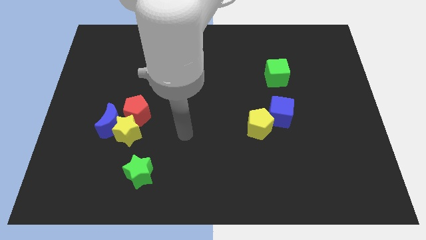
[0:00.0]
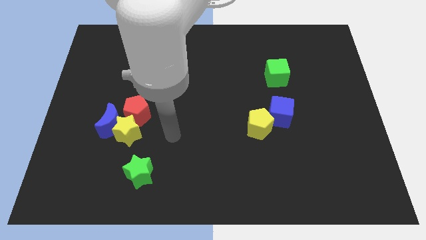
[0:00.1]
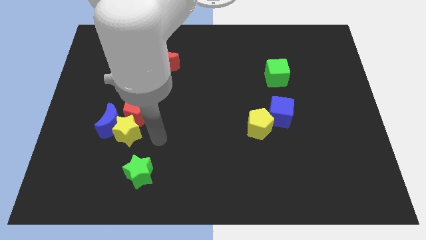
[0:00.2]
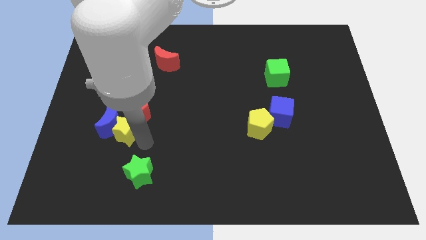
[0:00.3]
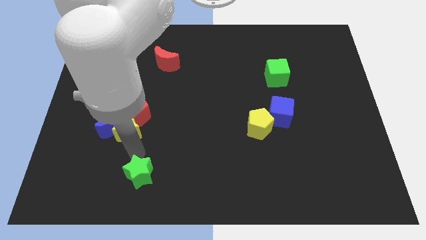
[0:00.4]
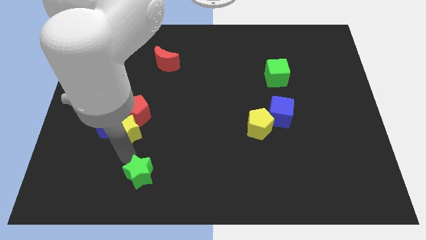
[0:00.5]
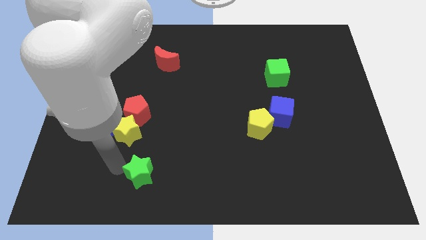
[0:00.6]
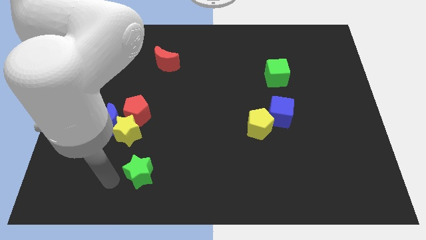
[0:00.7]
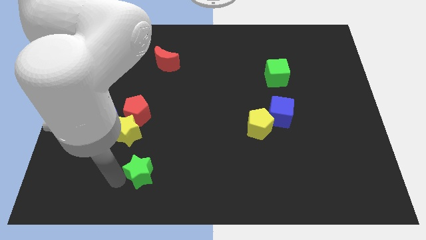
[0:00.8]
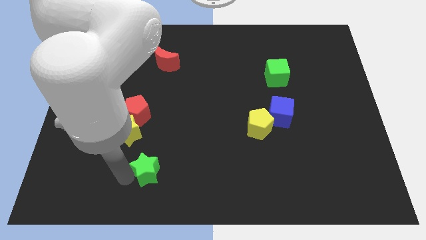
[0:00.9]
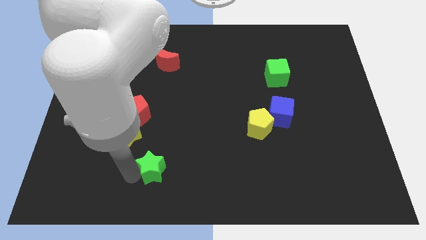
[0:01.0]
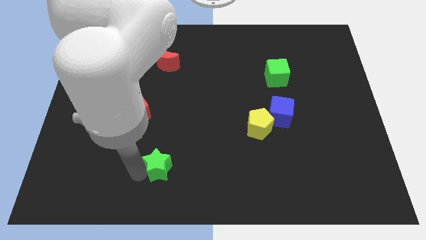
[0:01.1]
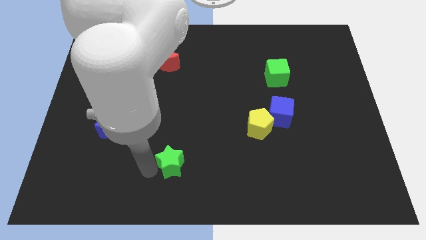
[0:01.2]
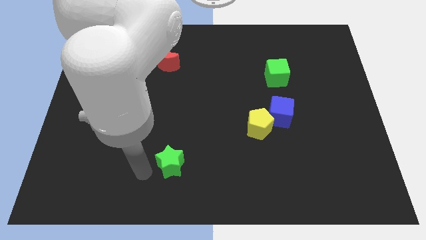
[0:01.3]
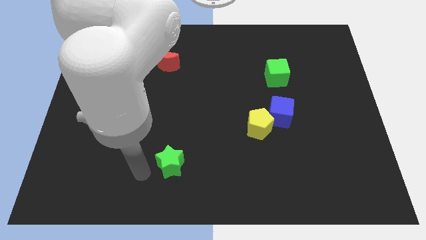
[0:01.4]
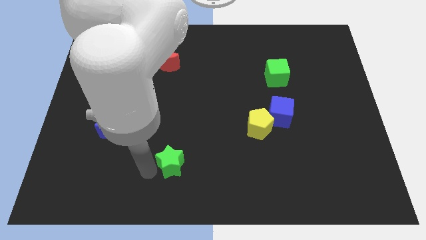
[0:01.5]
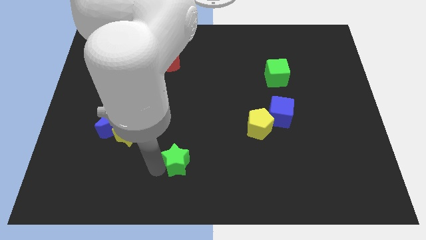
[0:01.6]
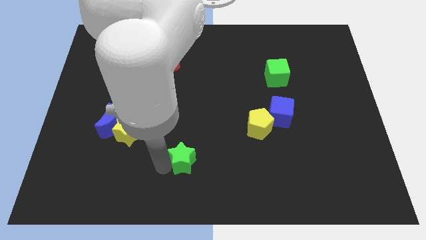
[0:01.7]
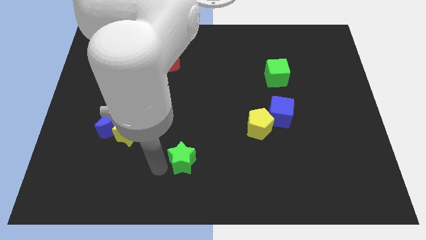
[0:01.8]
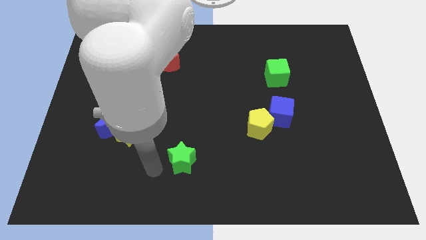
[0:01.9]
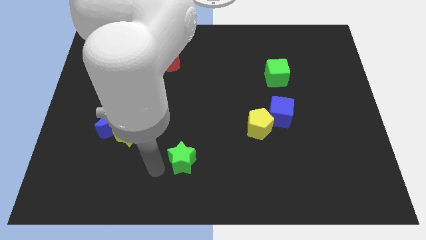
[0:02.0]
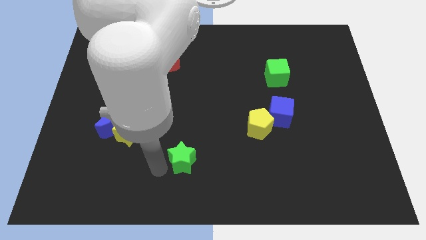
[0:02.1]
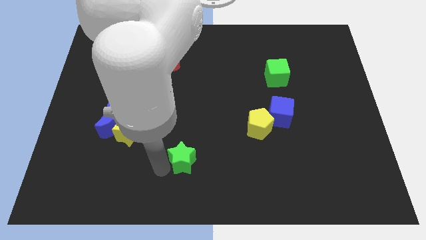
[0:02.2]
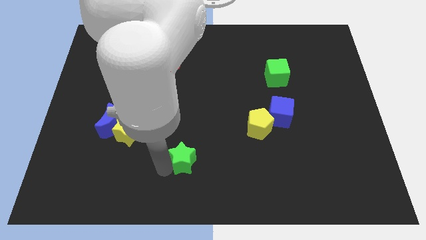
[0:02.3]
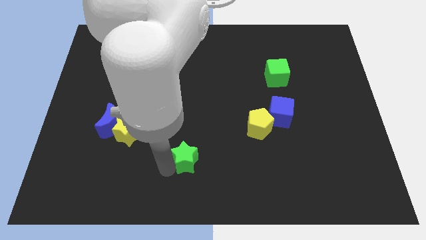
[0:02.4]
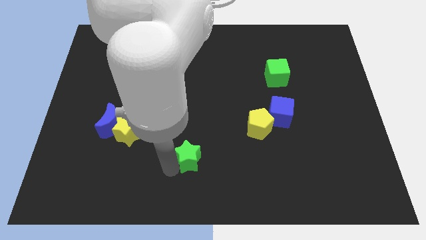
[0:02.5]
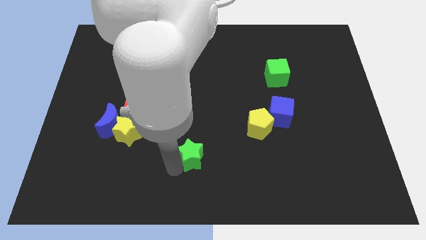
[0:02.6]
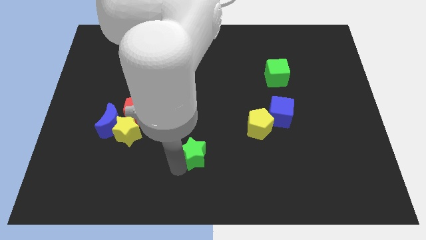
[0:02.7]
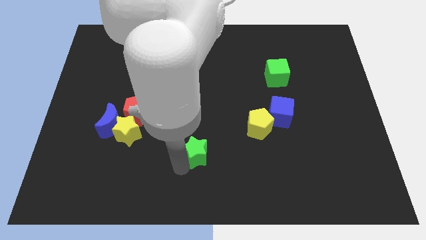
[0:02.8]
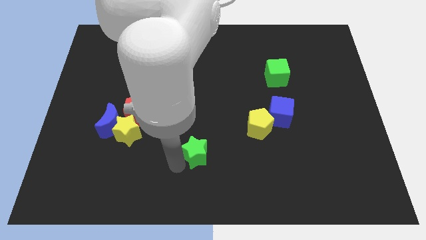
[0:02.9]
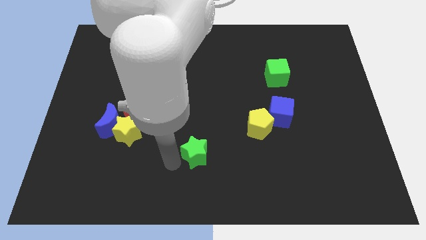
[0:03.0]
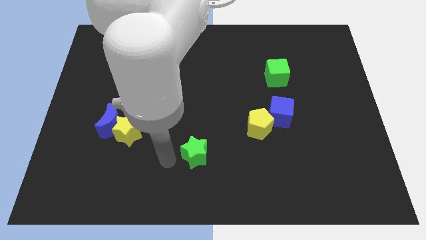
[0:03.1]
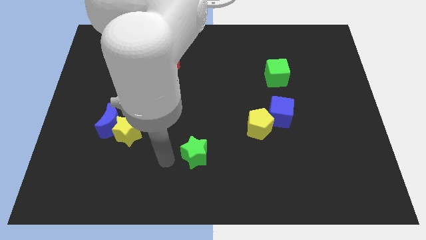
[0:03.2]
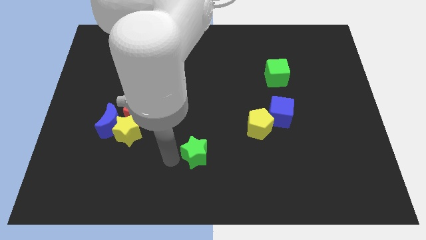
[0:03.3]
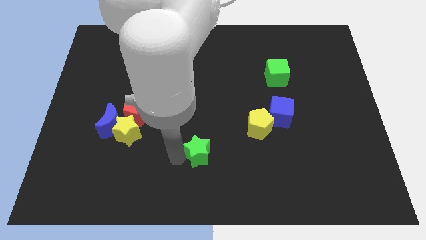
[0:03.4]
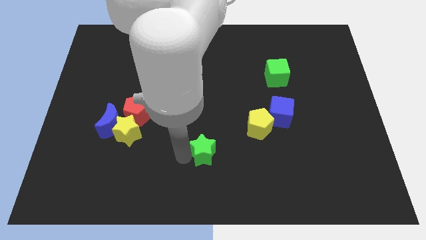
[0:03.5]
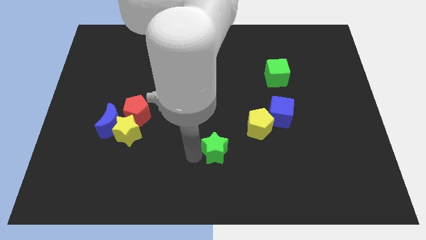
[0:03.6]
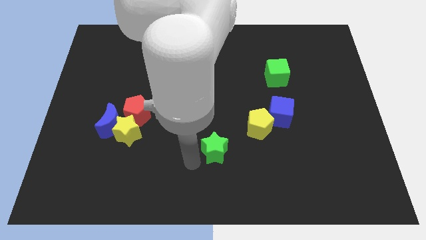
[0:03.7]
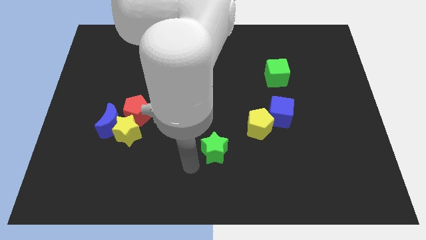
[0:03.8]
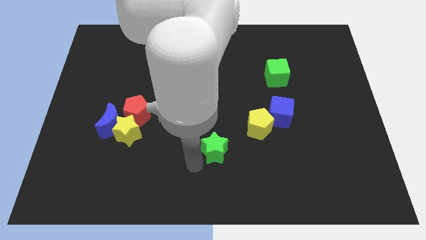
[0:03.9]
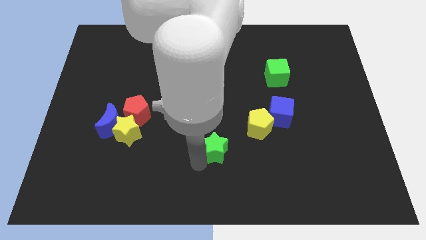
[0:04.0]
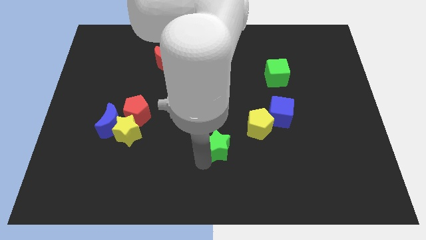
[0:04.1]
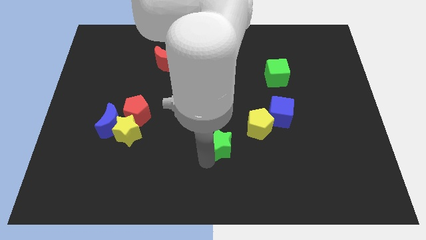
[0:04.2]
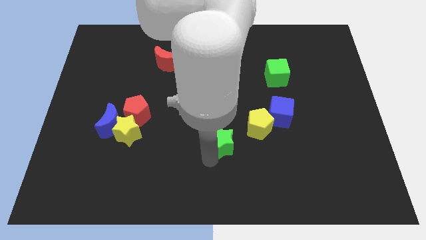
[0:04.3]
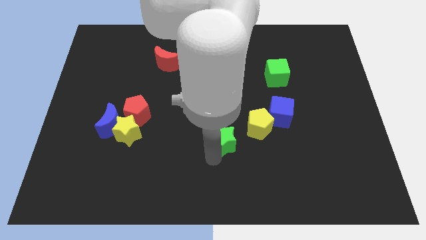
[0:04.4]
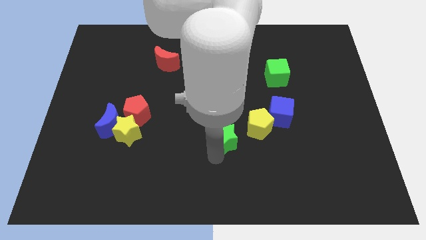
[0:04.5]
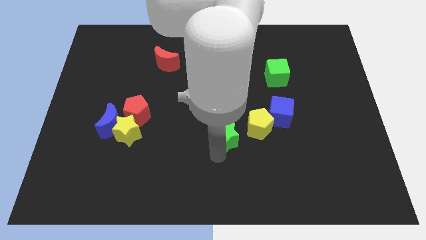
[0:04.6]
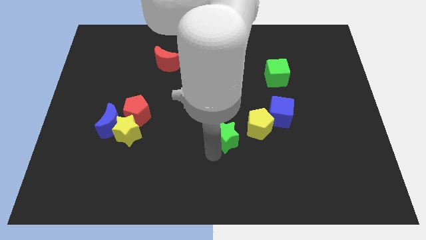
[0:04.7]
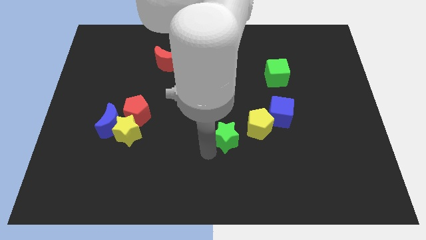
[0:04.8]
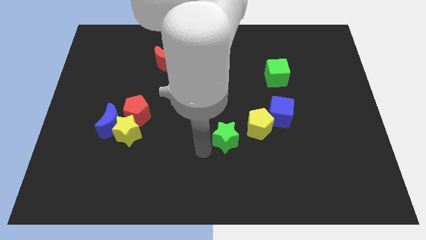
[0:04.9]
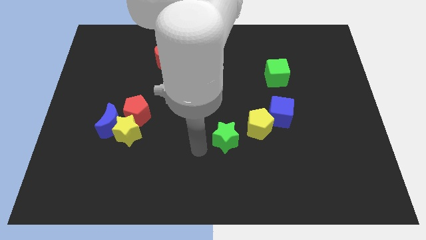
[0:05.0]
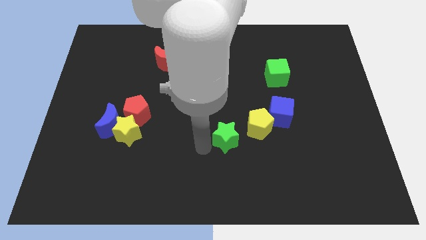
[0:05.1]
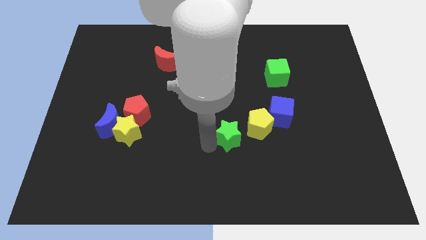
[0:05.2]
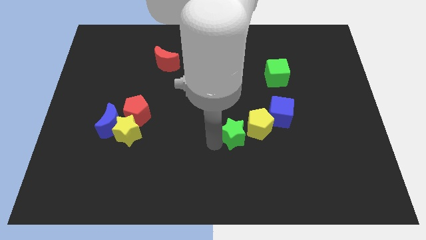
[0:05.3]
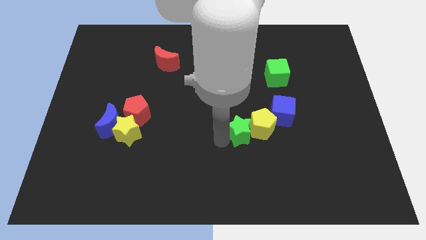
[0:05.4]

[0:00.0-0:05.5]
slide the green star next to the yellow pentagon

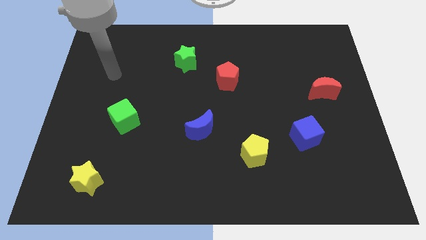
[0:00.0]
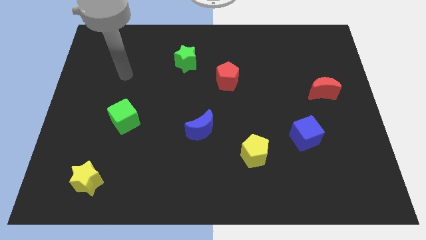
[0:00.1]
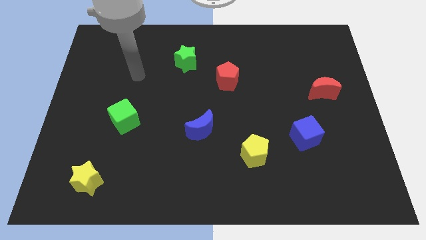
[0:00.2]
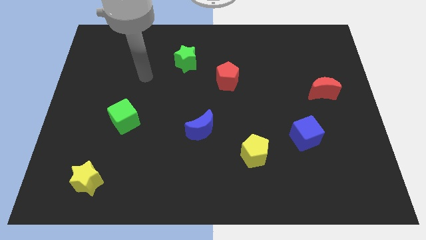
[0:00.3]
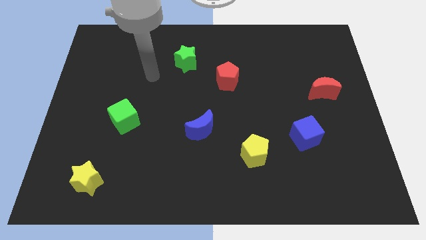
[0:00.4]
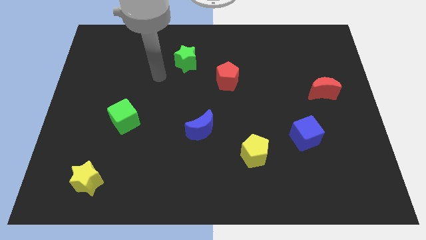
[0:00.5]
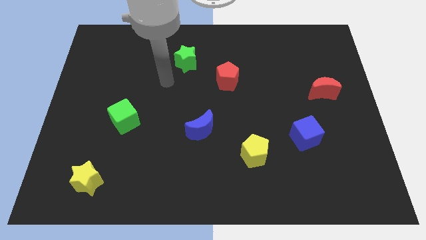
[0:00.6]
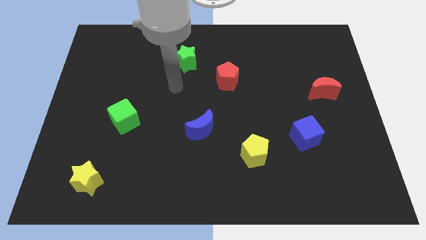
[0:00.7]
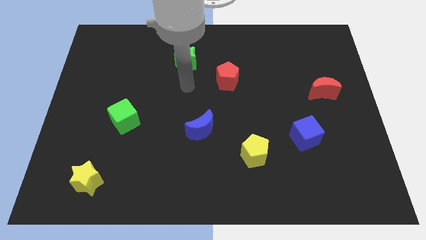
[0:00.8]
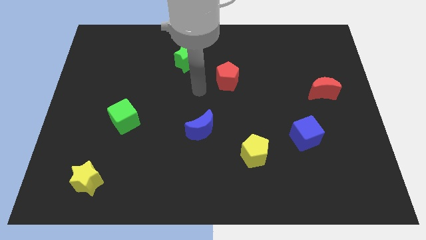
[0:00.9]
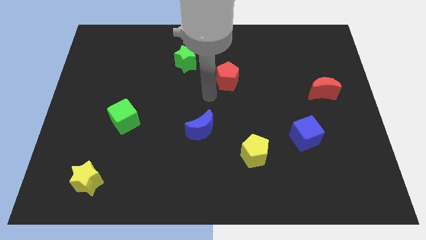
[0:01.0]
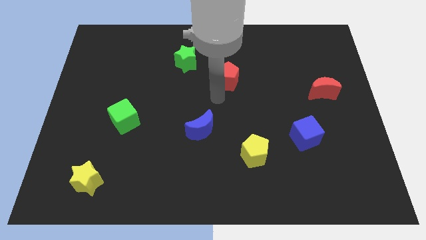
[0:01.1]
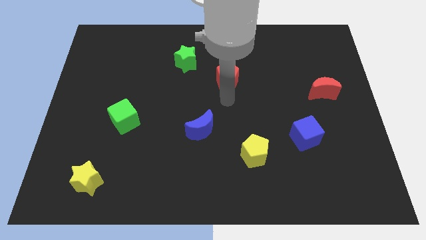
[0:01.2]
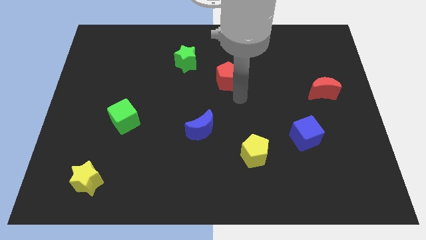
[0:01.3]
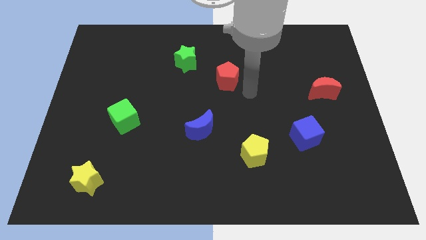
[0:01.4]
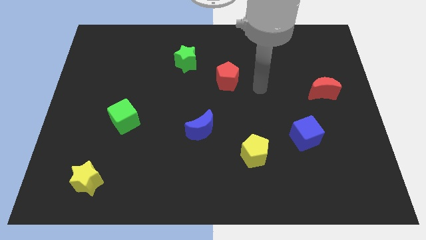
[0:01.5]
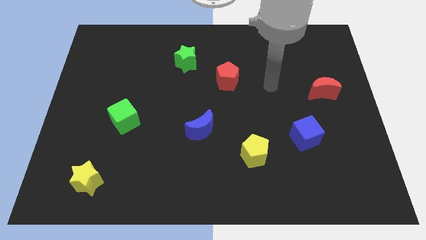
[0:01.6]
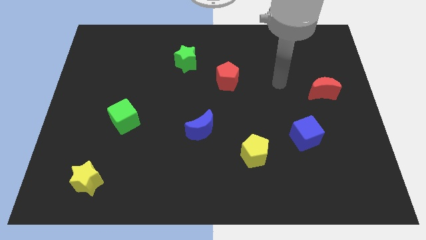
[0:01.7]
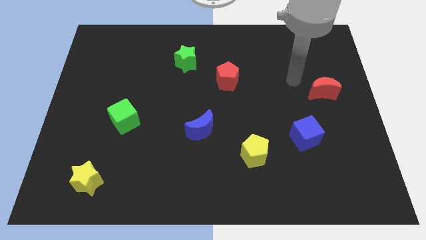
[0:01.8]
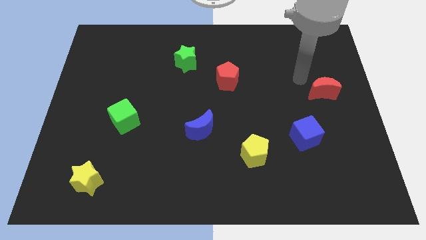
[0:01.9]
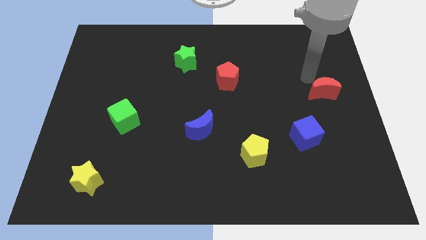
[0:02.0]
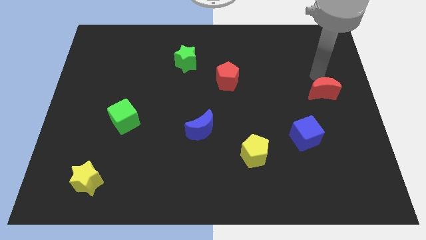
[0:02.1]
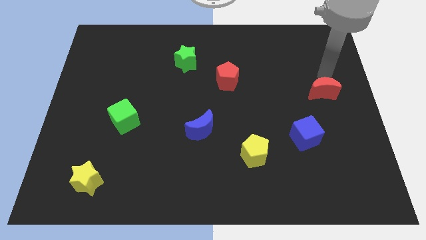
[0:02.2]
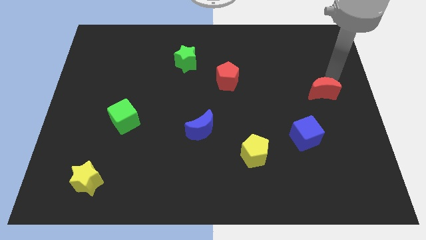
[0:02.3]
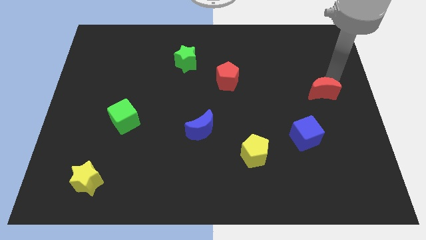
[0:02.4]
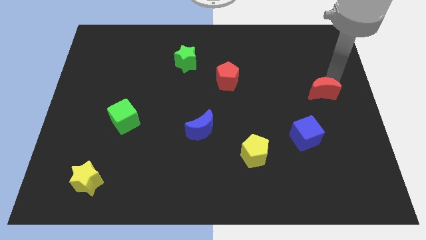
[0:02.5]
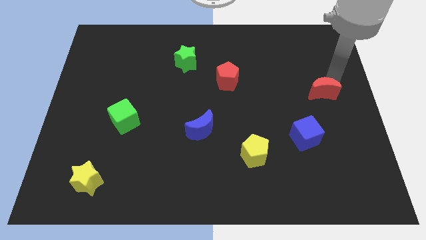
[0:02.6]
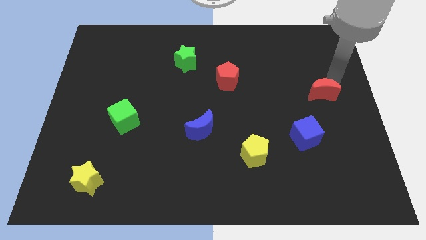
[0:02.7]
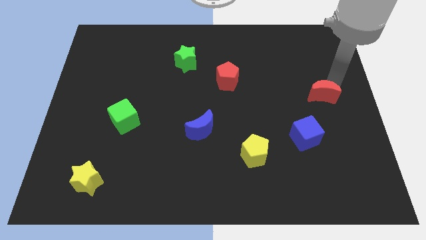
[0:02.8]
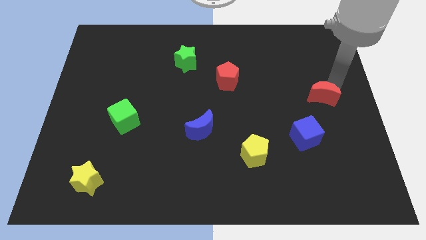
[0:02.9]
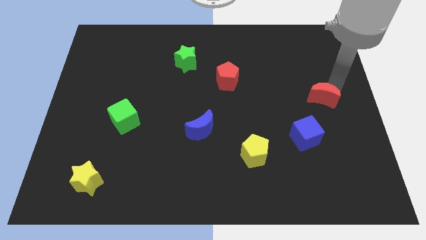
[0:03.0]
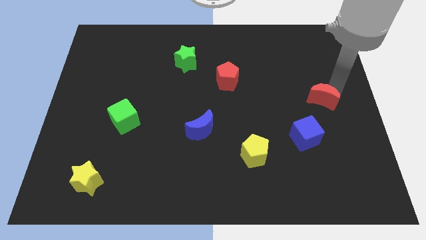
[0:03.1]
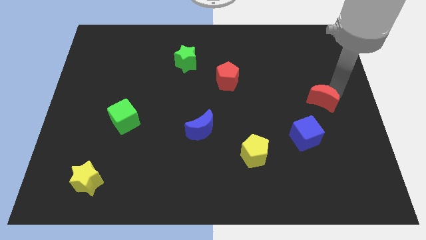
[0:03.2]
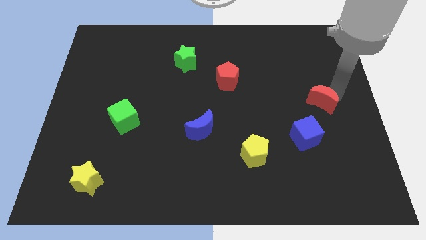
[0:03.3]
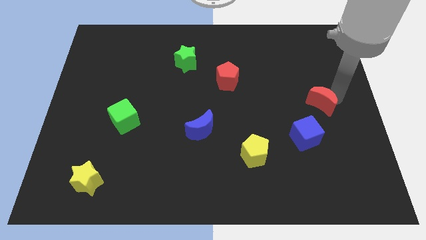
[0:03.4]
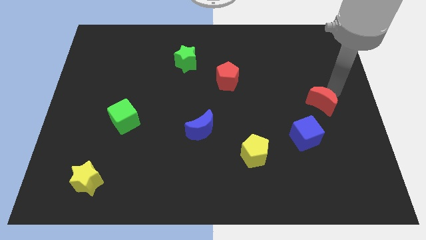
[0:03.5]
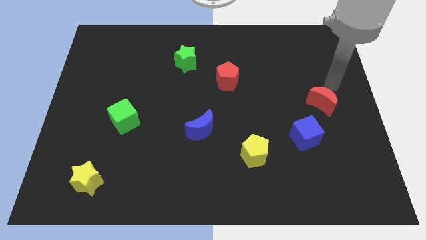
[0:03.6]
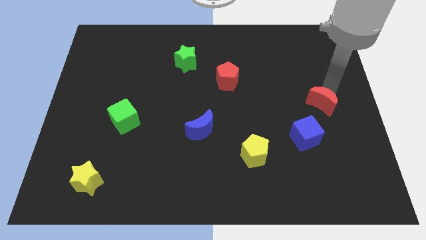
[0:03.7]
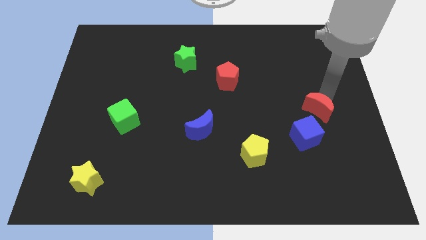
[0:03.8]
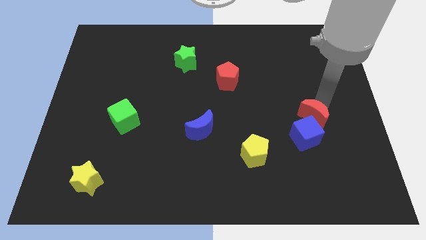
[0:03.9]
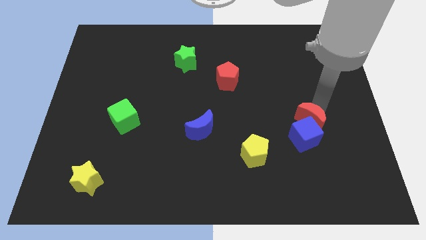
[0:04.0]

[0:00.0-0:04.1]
push the red moon close to the blue cube
